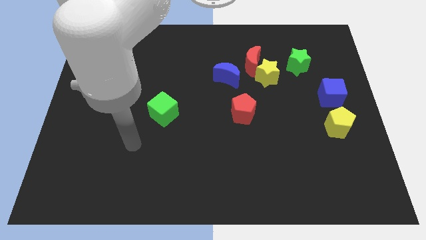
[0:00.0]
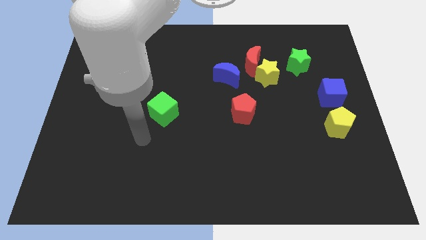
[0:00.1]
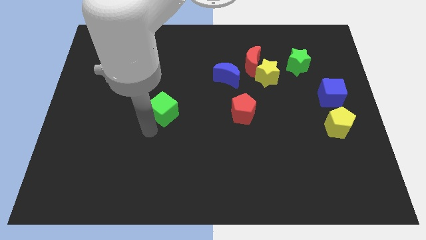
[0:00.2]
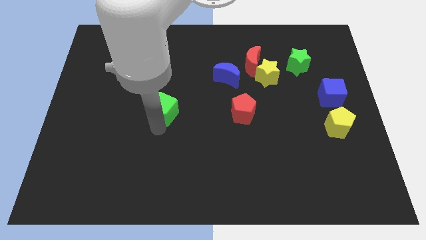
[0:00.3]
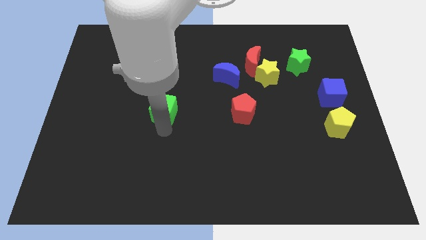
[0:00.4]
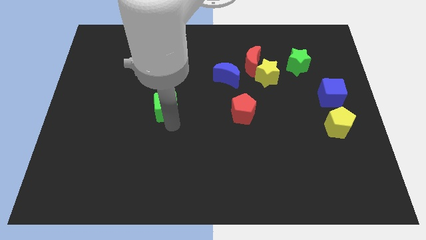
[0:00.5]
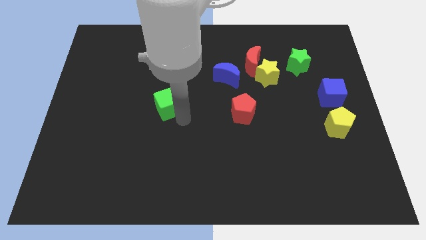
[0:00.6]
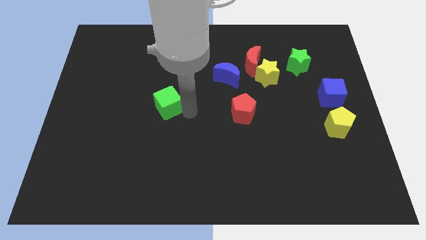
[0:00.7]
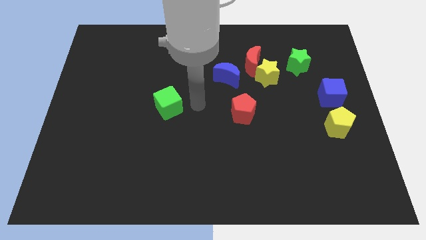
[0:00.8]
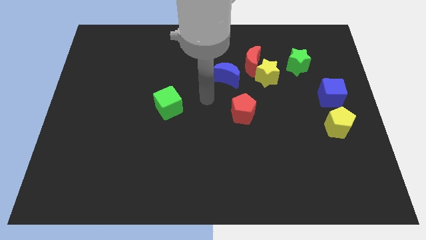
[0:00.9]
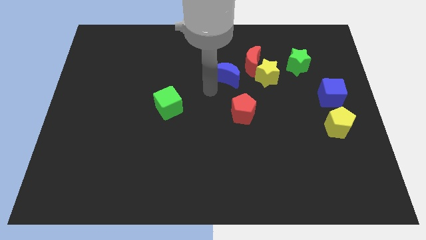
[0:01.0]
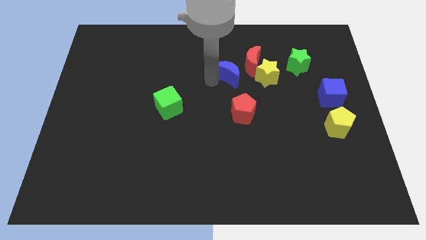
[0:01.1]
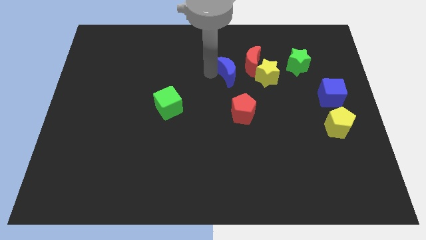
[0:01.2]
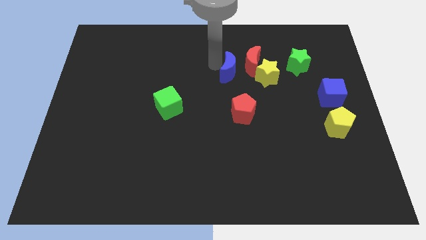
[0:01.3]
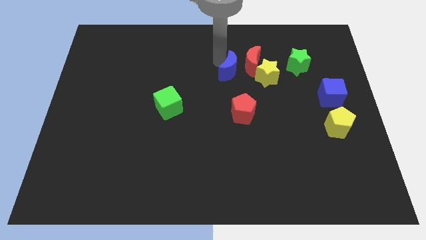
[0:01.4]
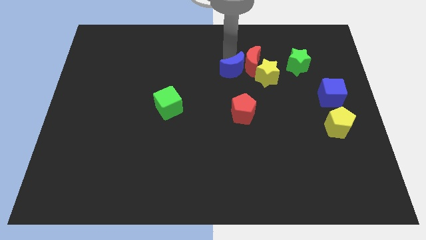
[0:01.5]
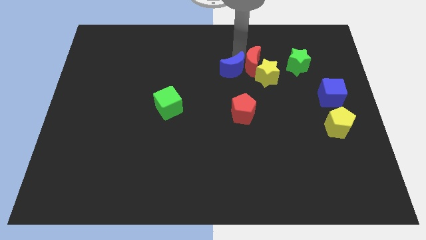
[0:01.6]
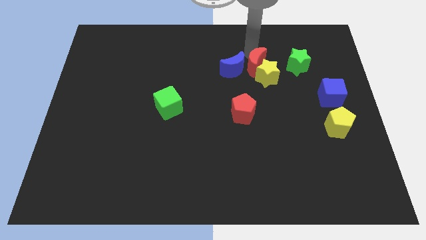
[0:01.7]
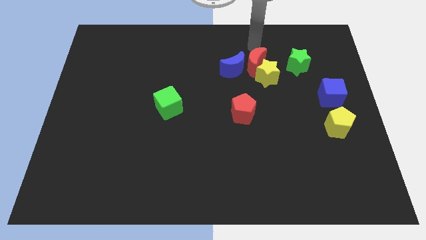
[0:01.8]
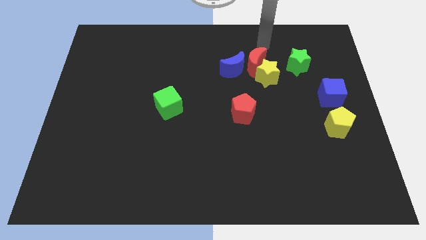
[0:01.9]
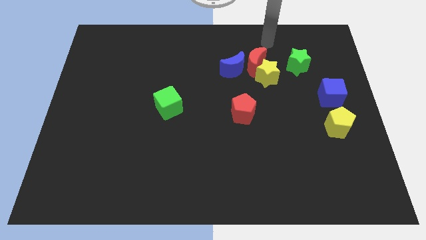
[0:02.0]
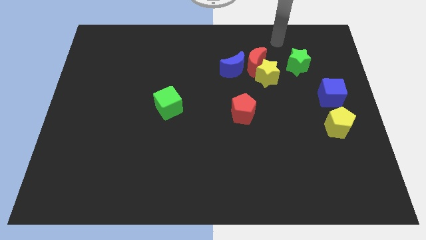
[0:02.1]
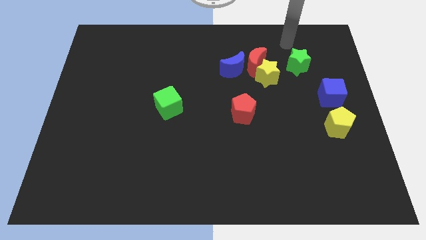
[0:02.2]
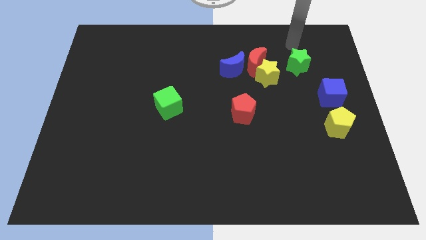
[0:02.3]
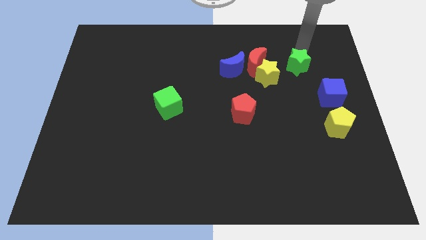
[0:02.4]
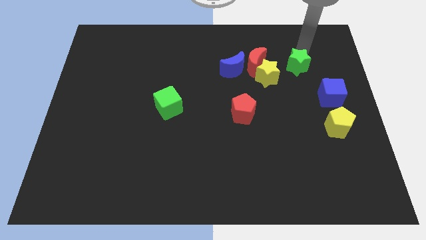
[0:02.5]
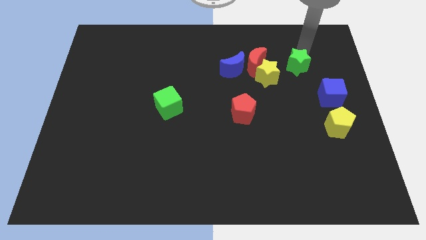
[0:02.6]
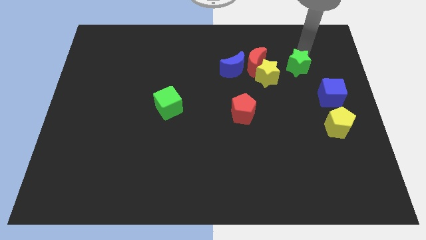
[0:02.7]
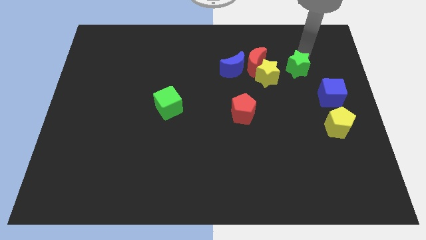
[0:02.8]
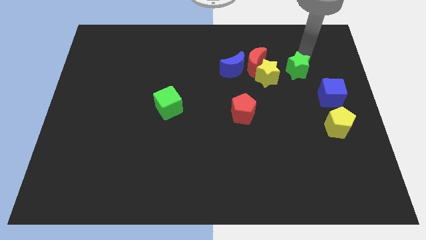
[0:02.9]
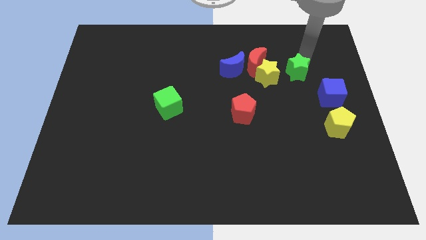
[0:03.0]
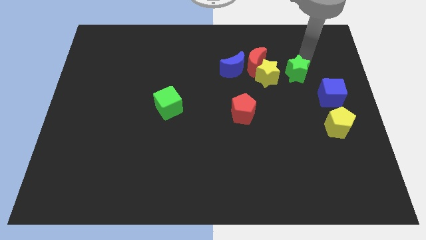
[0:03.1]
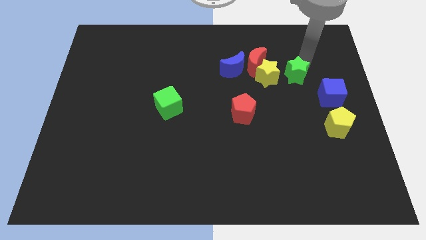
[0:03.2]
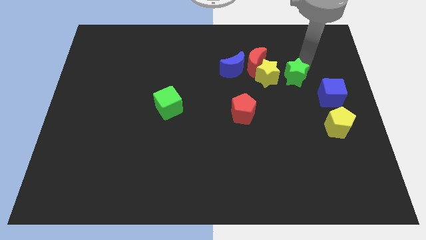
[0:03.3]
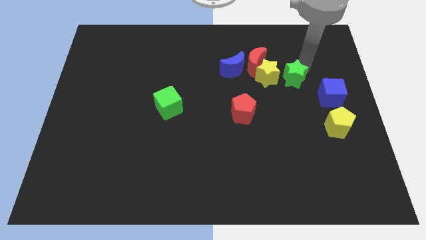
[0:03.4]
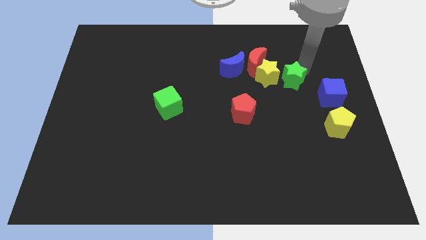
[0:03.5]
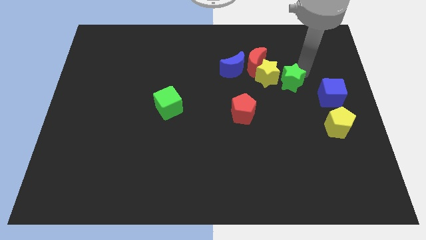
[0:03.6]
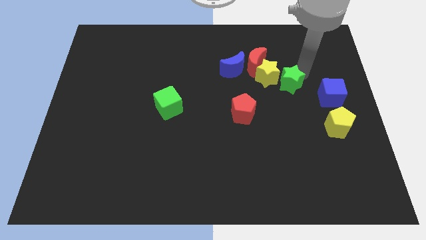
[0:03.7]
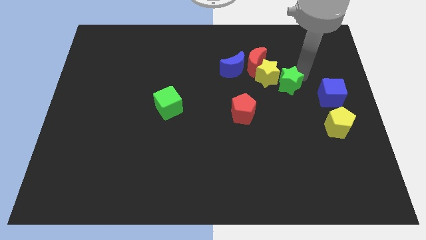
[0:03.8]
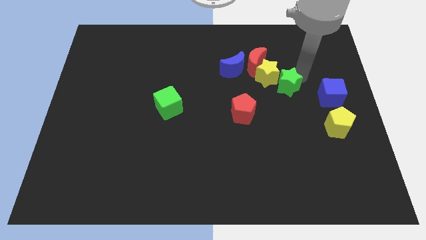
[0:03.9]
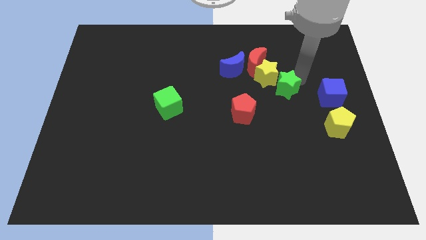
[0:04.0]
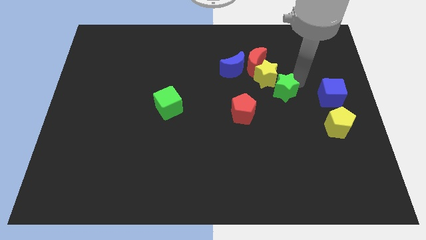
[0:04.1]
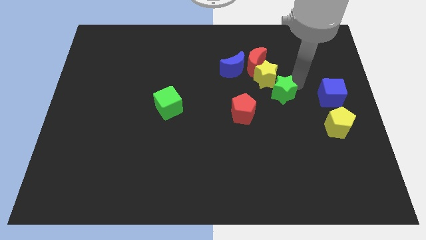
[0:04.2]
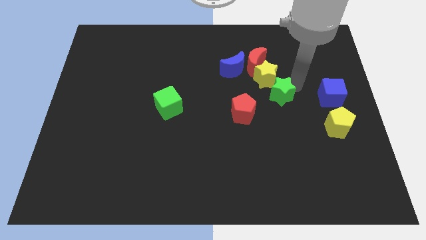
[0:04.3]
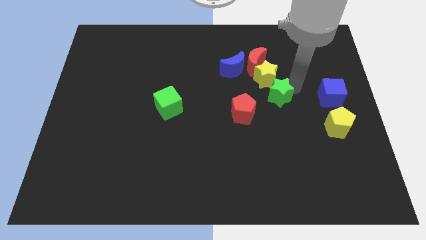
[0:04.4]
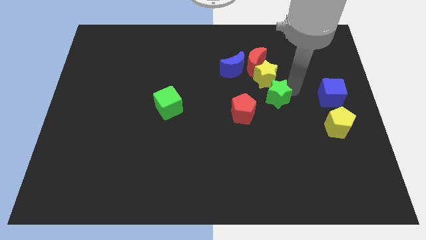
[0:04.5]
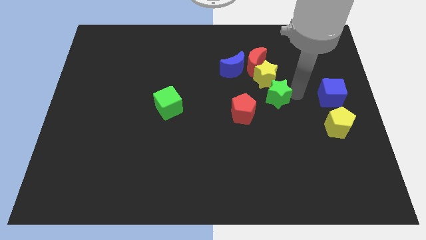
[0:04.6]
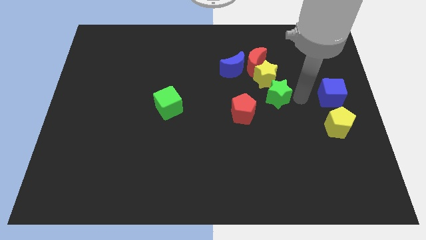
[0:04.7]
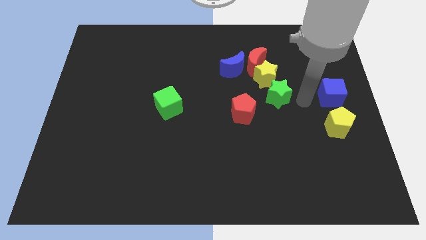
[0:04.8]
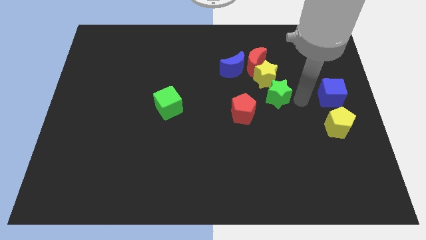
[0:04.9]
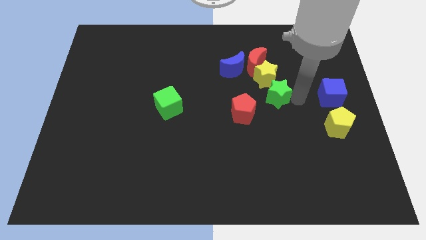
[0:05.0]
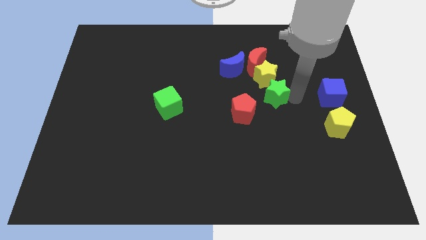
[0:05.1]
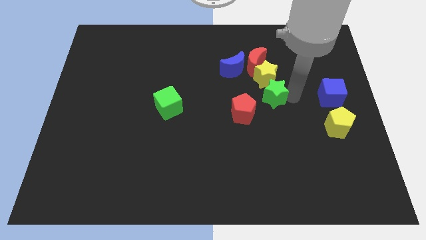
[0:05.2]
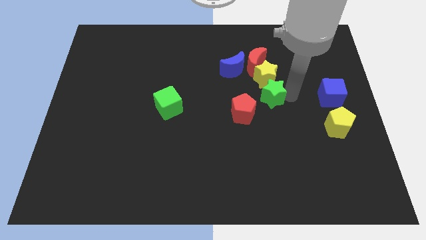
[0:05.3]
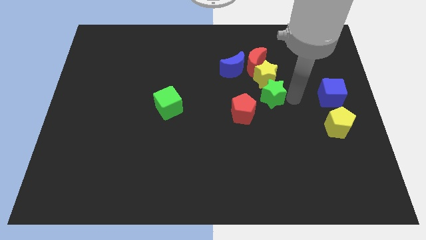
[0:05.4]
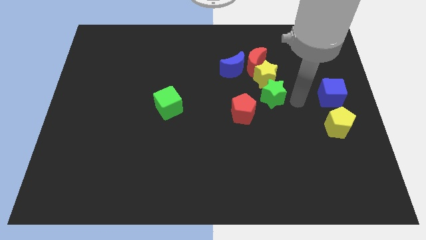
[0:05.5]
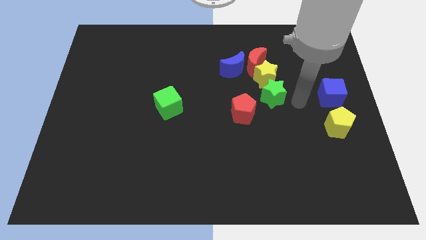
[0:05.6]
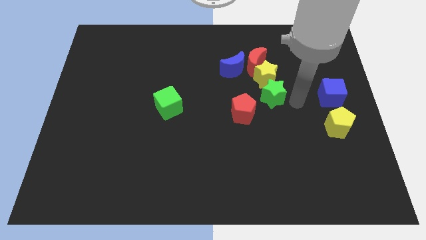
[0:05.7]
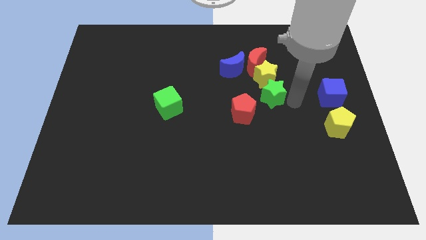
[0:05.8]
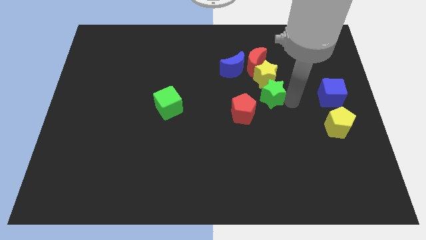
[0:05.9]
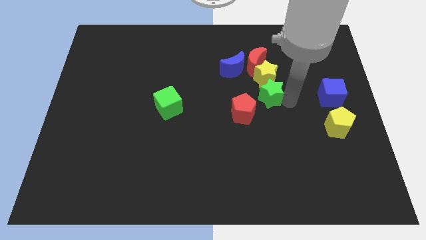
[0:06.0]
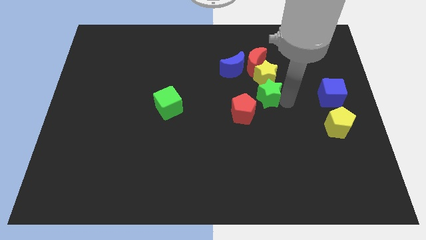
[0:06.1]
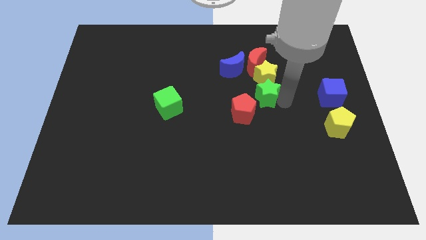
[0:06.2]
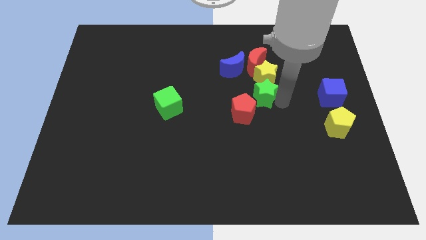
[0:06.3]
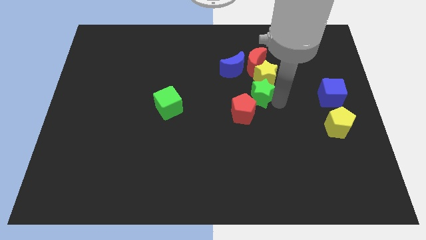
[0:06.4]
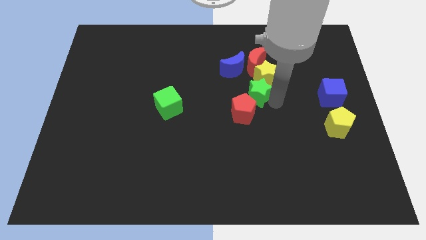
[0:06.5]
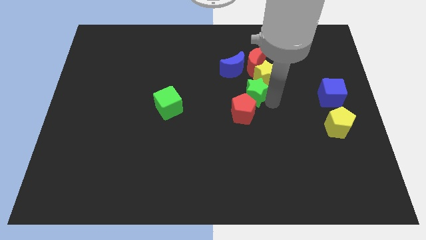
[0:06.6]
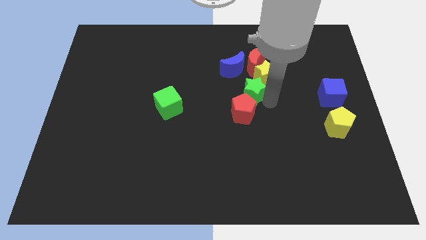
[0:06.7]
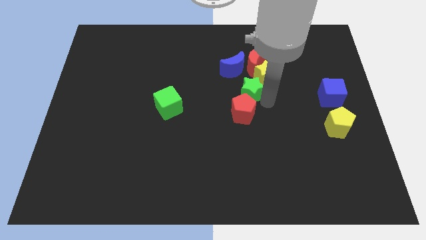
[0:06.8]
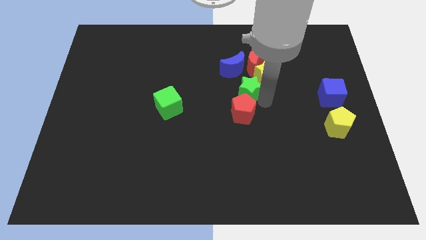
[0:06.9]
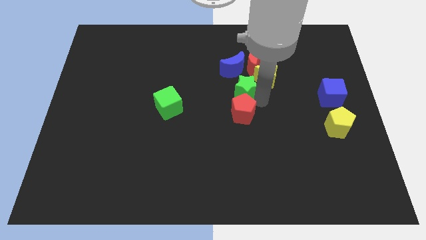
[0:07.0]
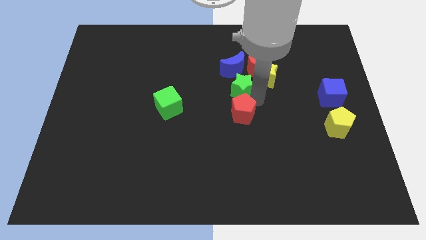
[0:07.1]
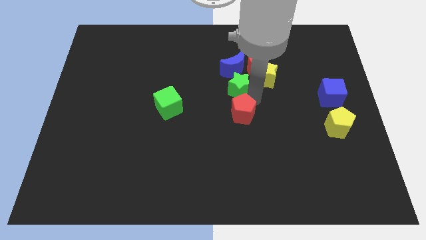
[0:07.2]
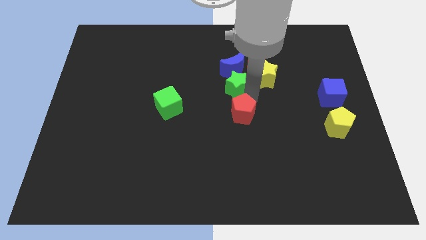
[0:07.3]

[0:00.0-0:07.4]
put the green star next to the blue moon

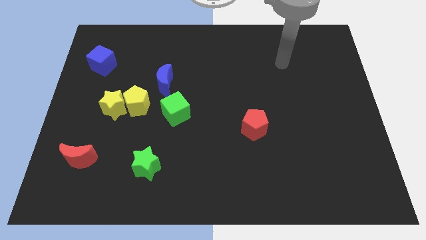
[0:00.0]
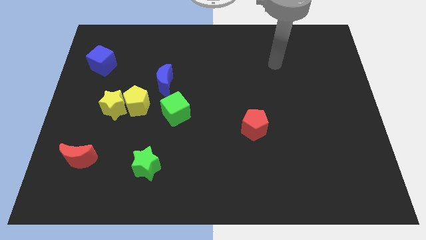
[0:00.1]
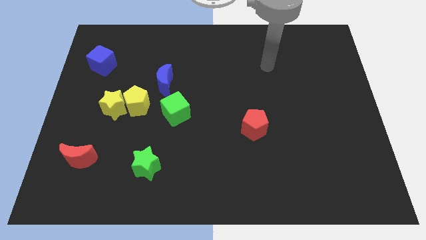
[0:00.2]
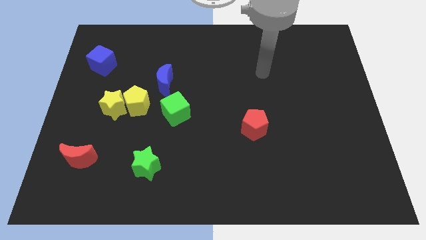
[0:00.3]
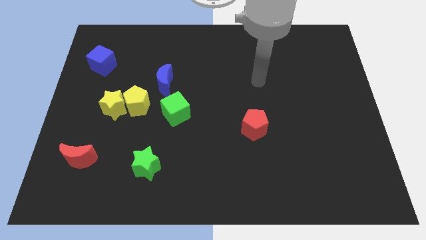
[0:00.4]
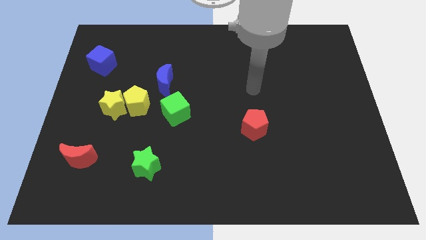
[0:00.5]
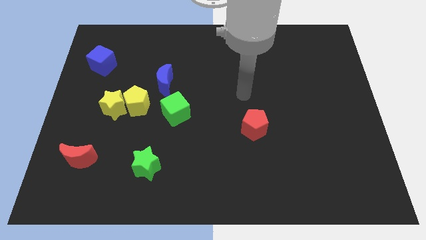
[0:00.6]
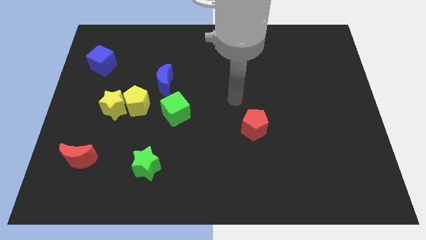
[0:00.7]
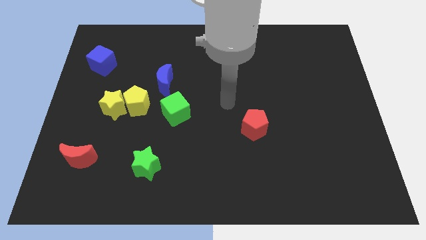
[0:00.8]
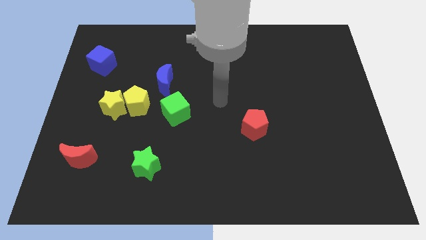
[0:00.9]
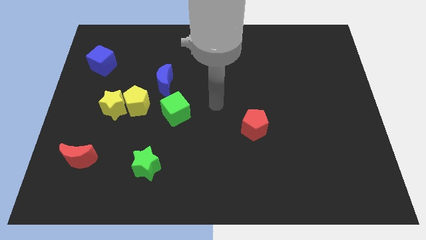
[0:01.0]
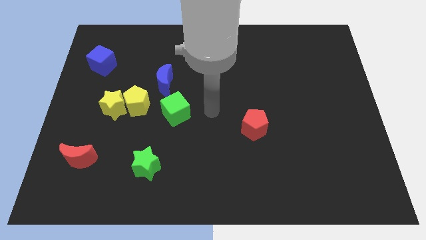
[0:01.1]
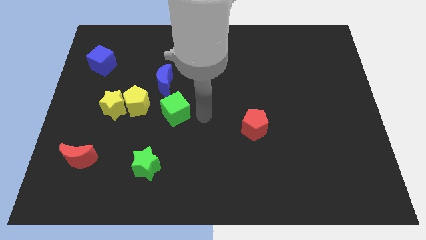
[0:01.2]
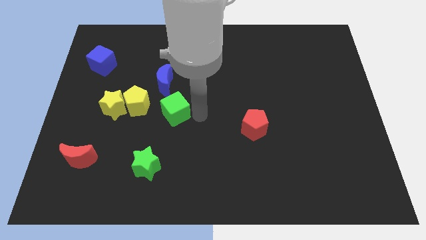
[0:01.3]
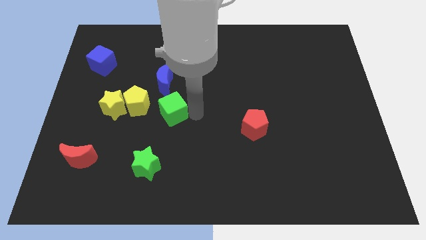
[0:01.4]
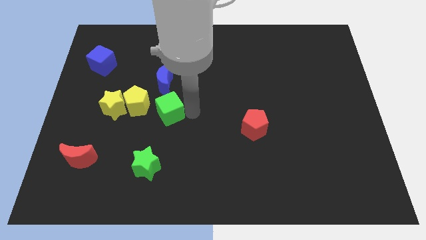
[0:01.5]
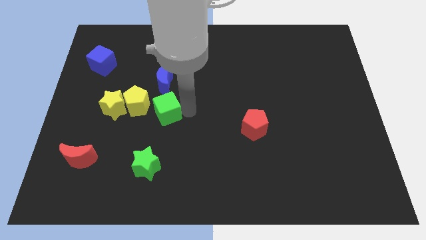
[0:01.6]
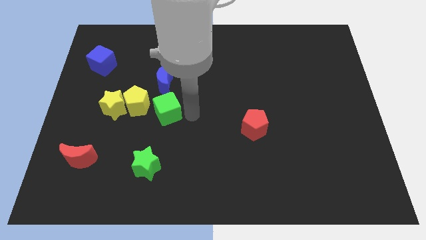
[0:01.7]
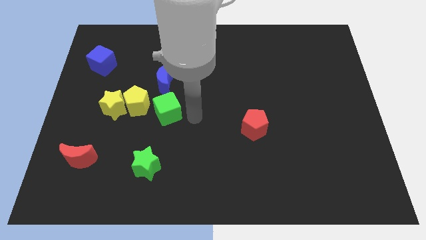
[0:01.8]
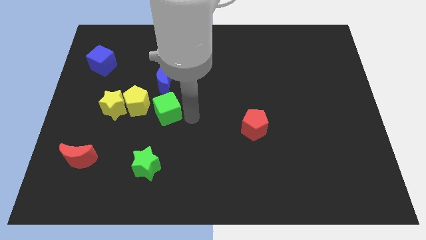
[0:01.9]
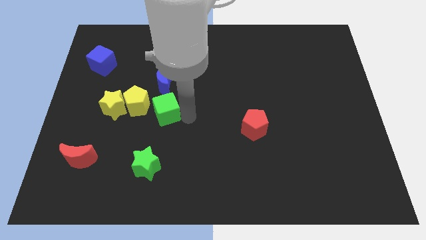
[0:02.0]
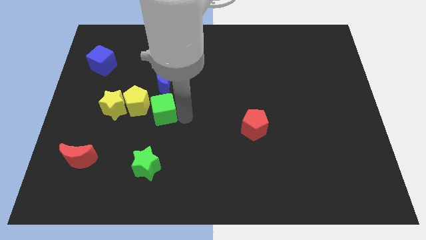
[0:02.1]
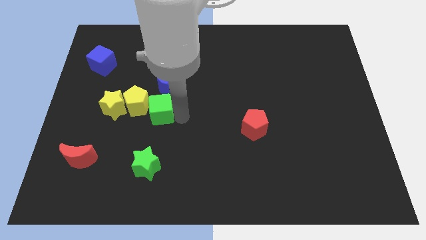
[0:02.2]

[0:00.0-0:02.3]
push the green cube to the yellow pentagon
